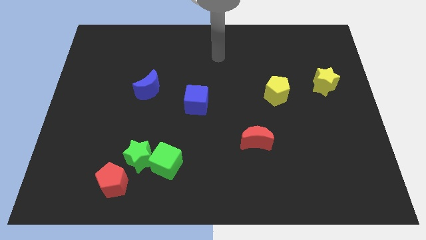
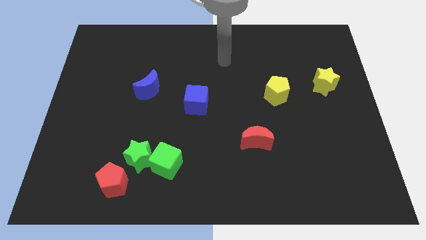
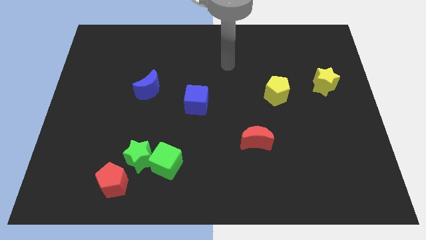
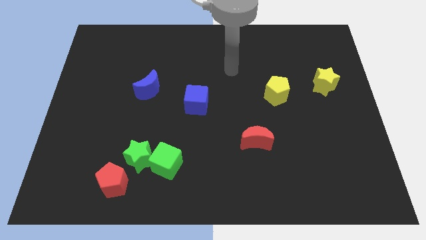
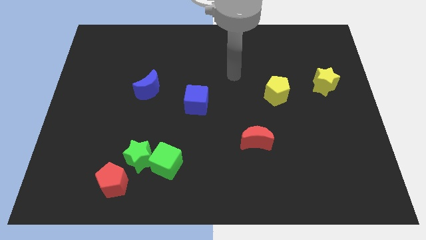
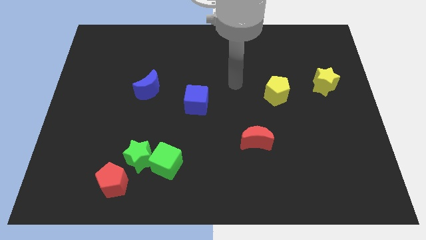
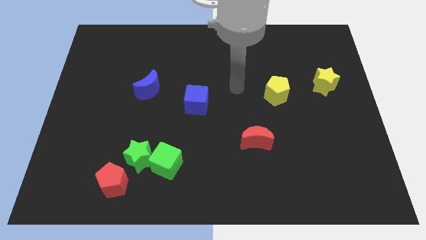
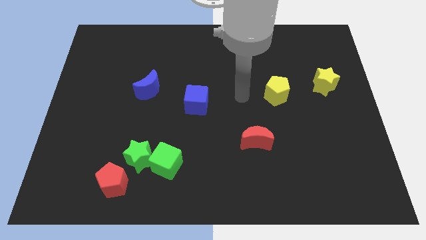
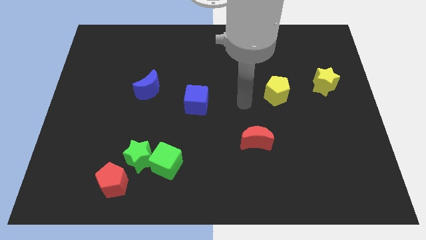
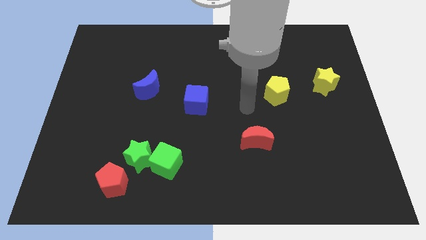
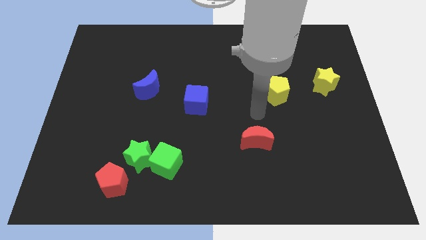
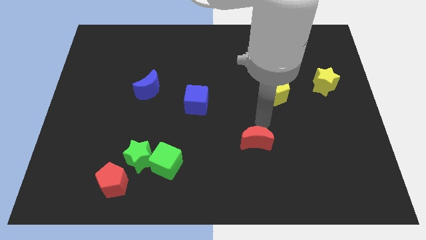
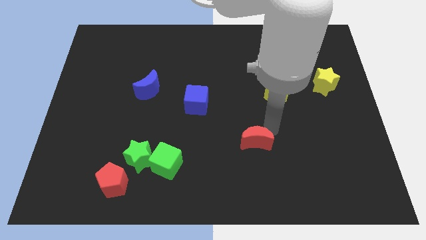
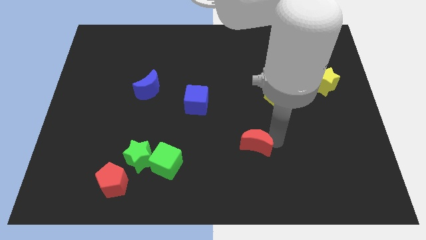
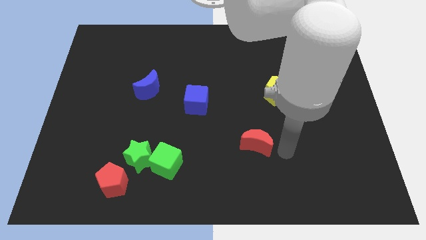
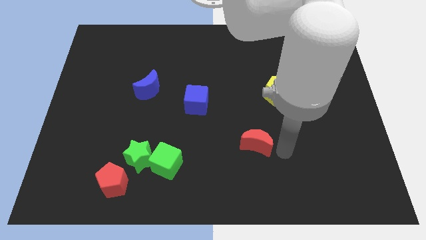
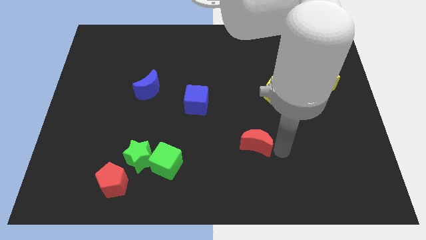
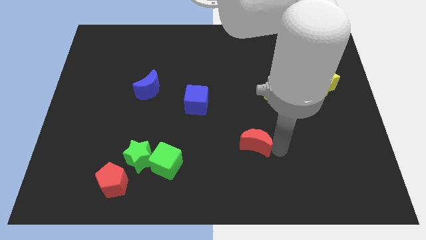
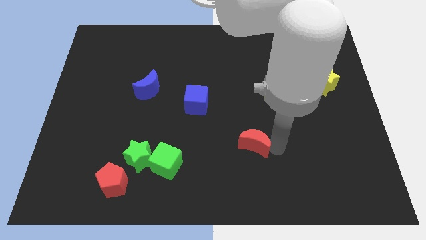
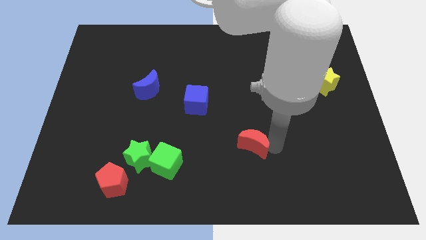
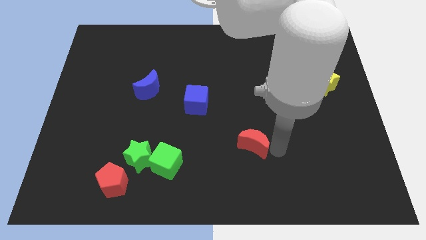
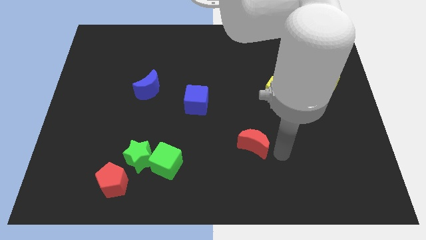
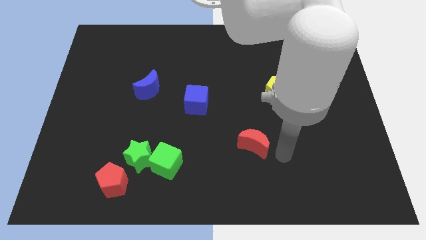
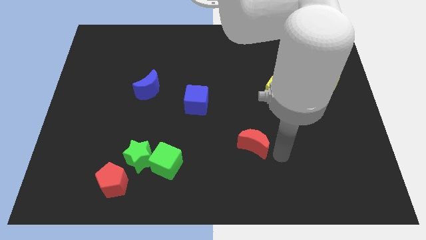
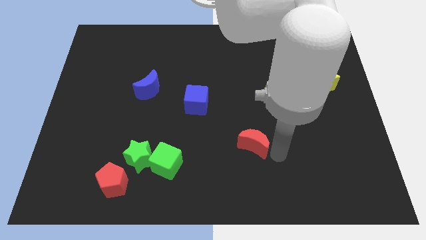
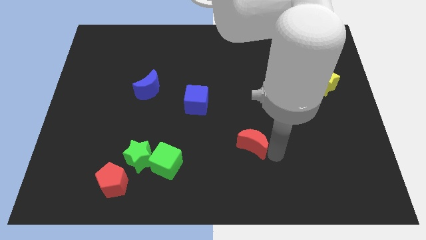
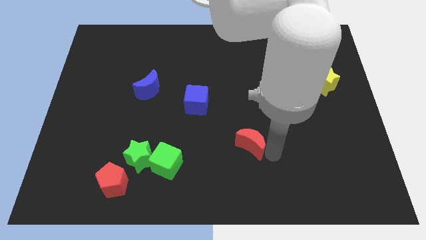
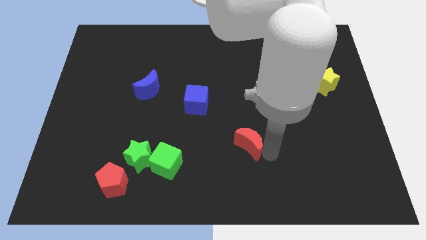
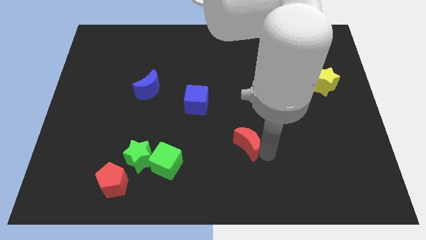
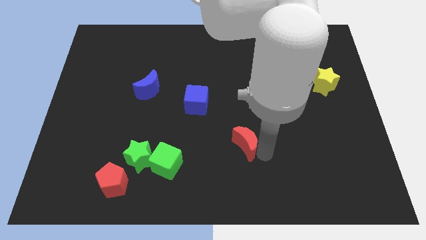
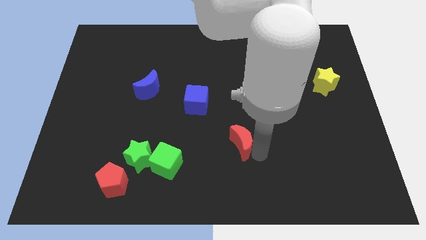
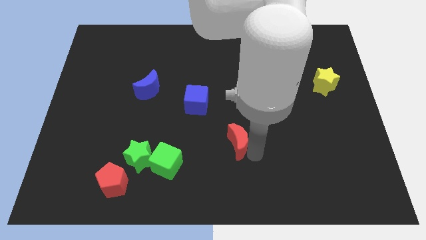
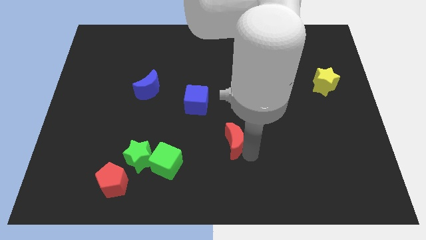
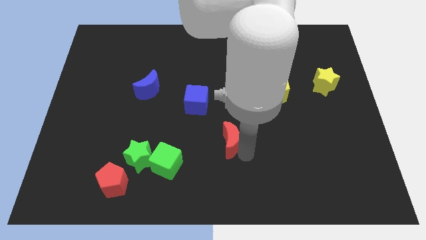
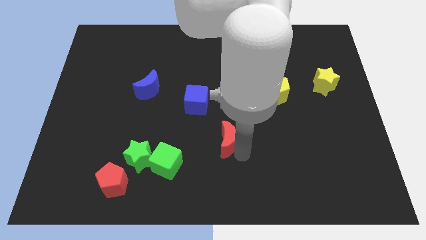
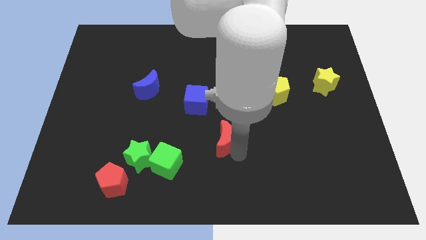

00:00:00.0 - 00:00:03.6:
move the red moon left a little bit

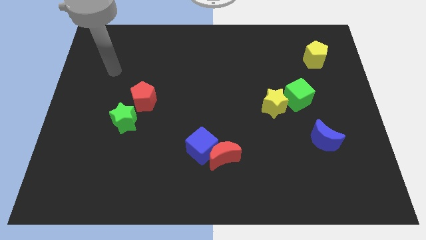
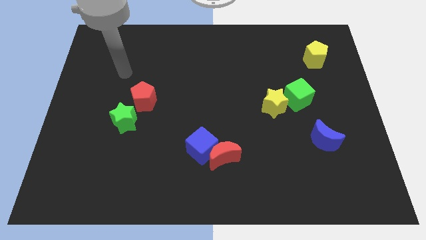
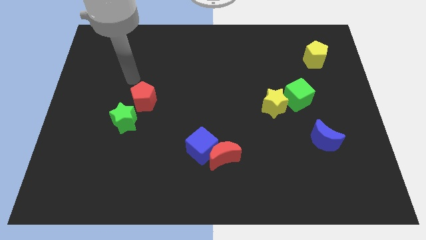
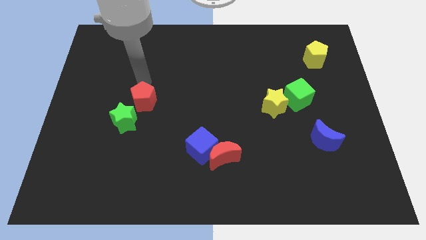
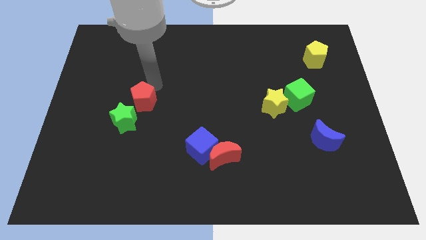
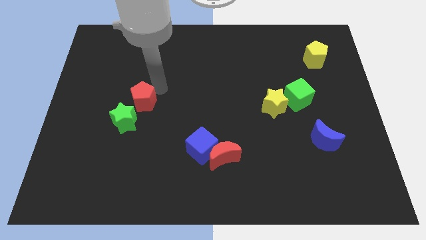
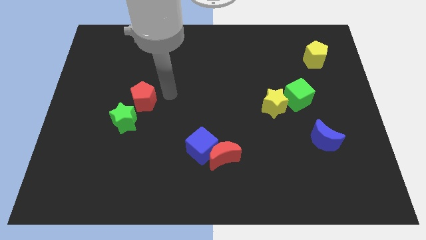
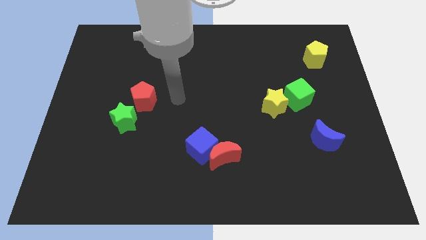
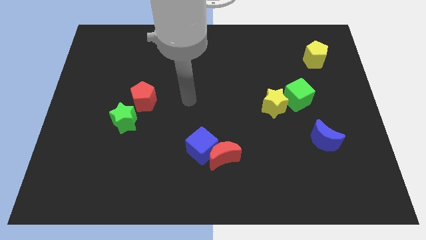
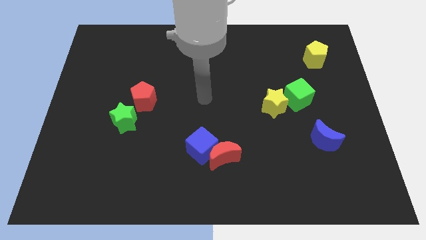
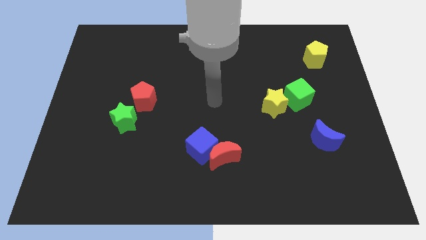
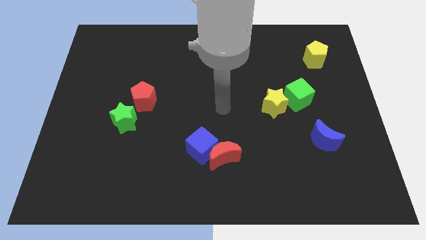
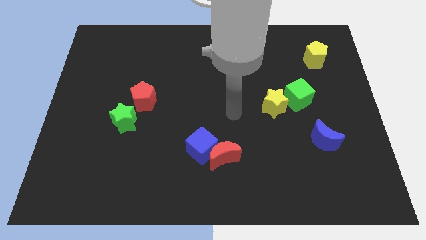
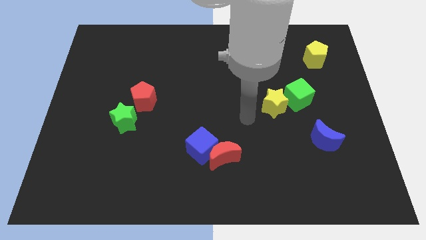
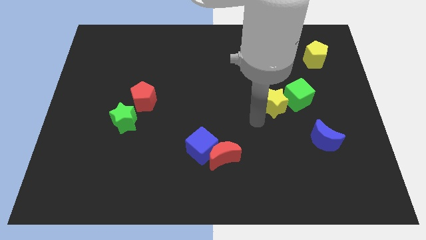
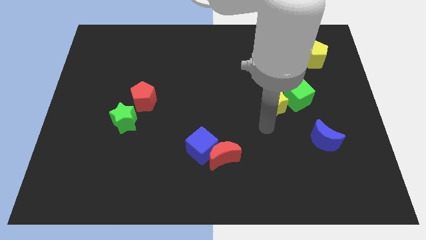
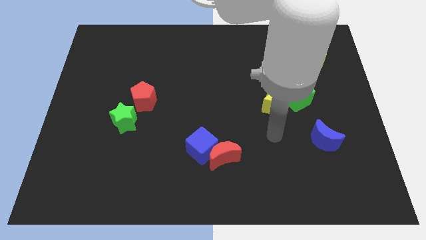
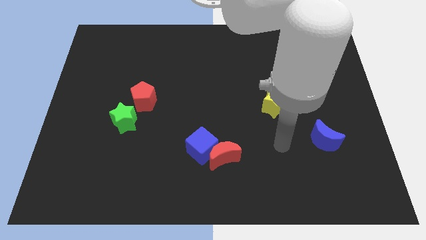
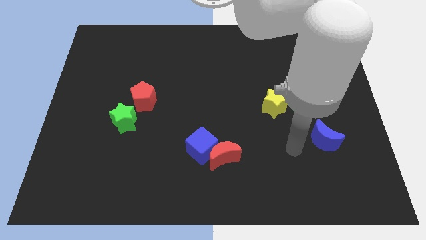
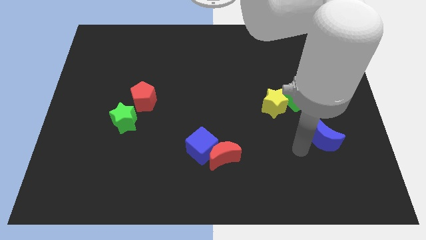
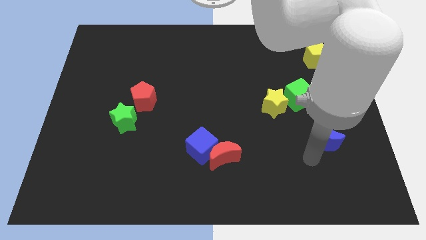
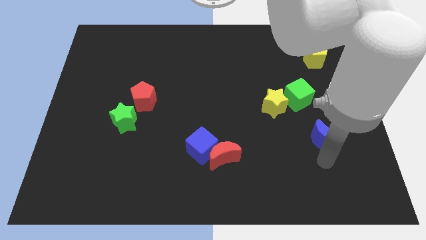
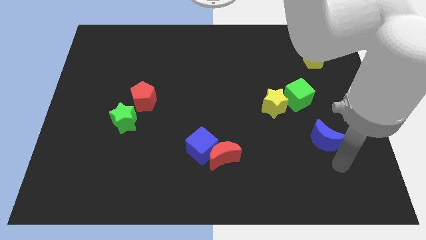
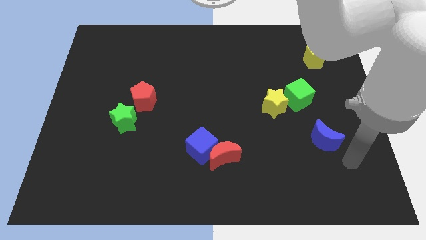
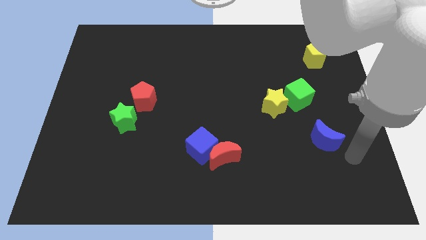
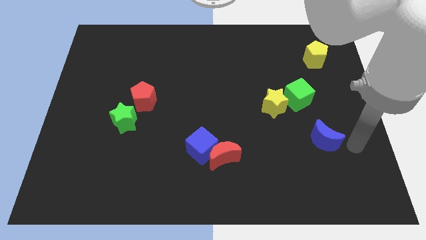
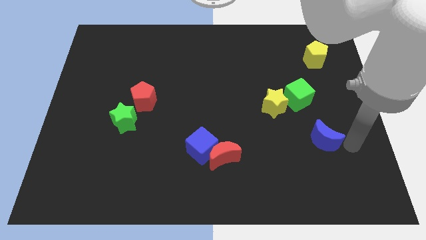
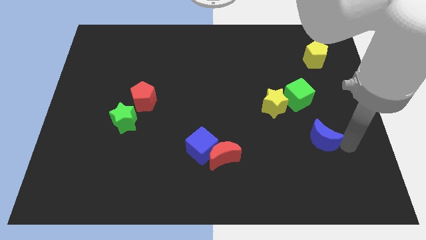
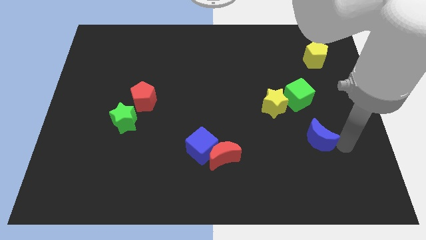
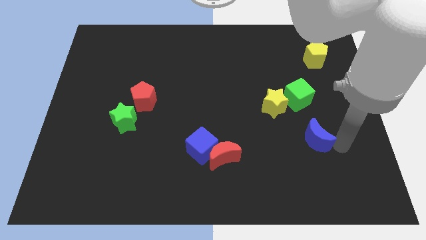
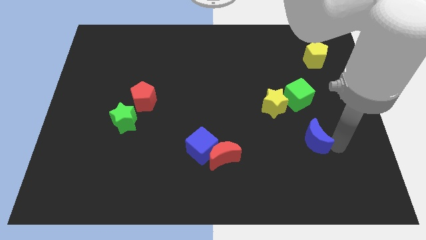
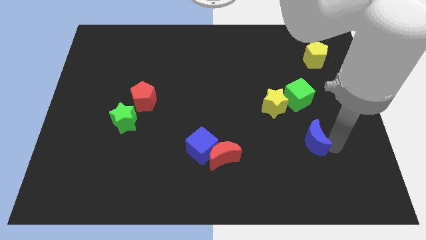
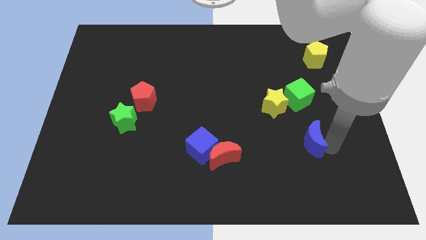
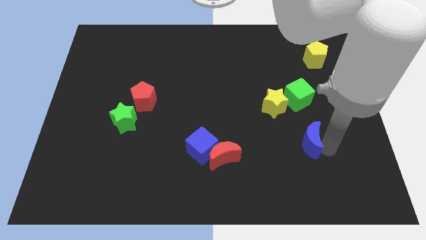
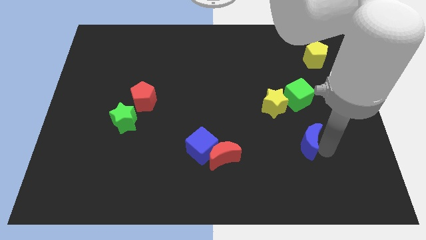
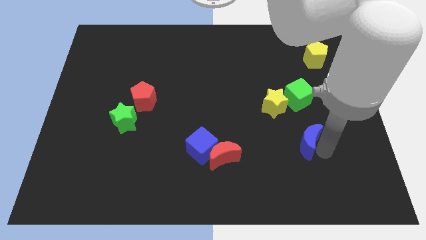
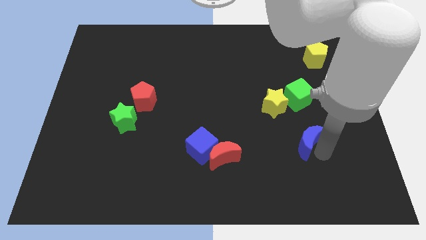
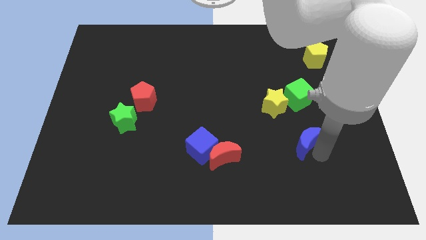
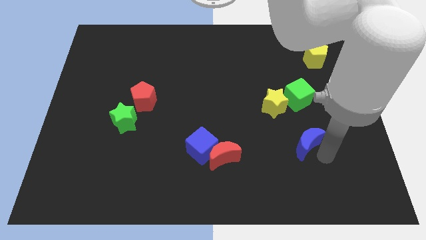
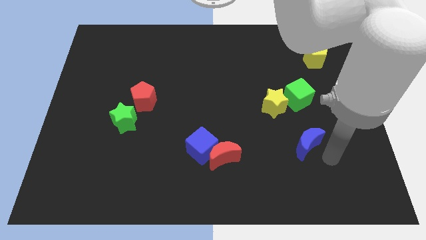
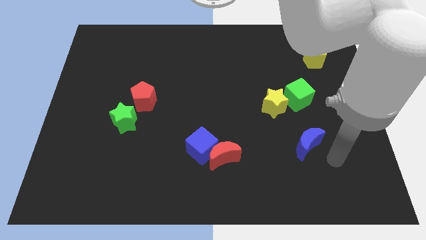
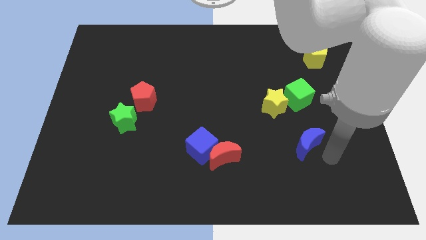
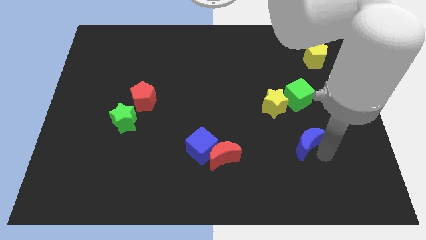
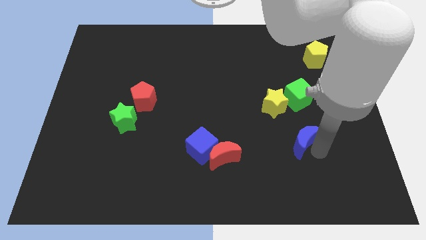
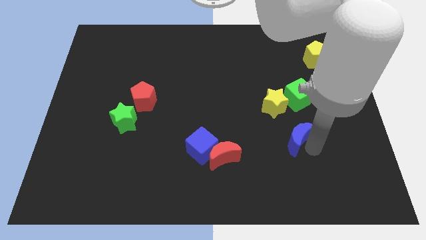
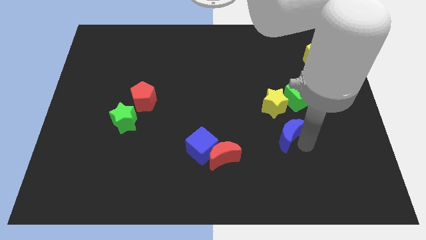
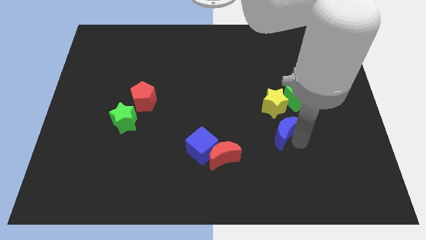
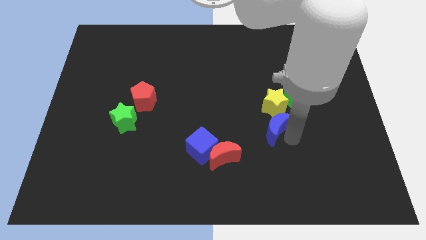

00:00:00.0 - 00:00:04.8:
push the blue moon up and left a bit
